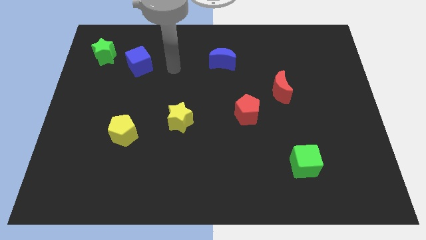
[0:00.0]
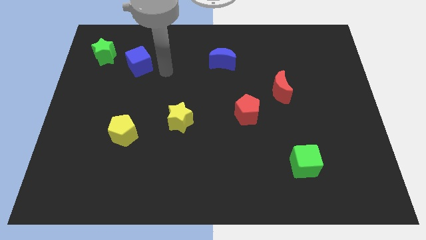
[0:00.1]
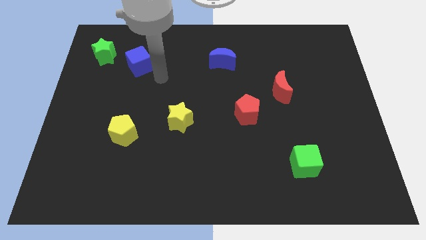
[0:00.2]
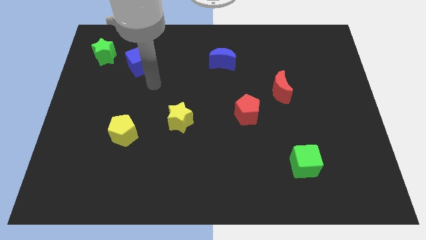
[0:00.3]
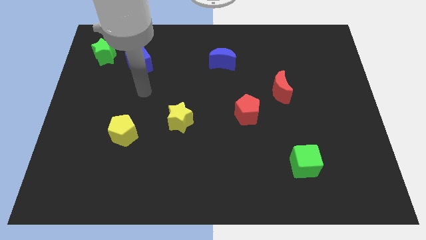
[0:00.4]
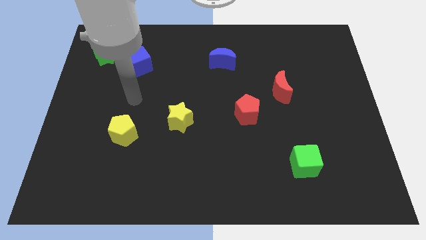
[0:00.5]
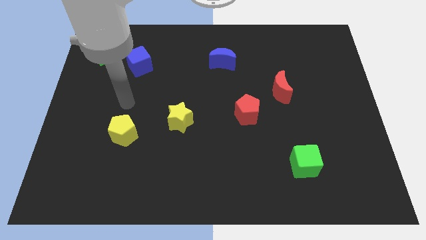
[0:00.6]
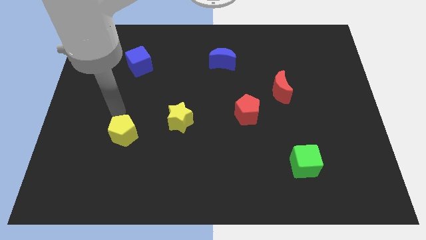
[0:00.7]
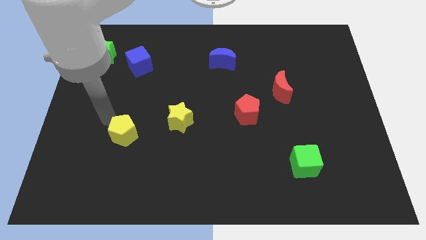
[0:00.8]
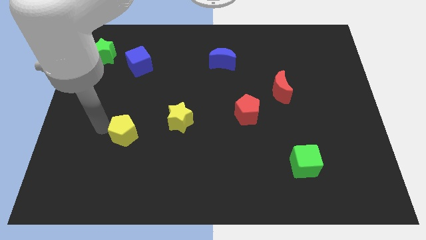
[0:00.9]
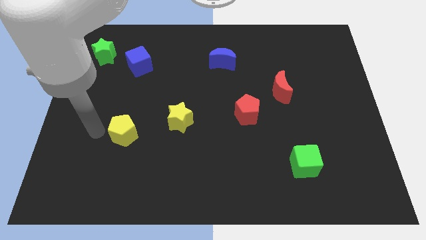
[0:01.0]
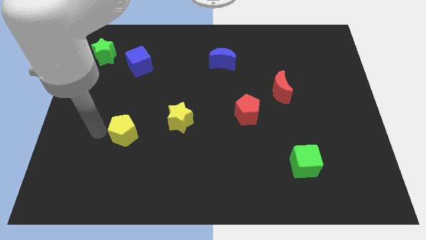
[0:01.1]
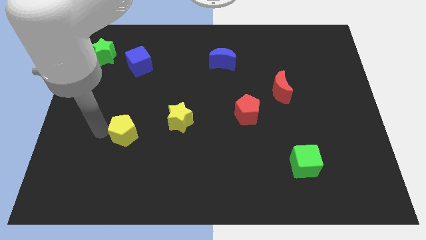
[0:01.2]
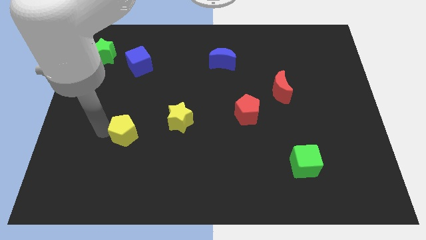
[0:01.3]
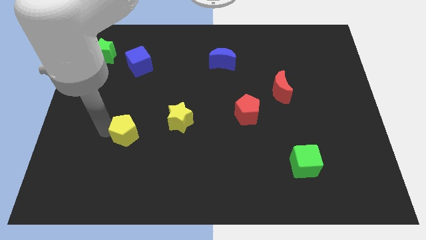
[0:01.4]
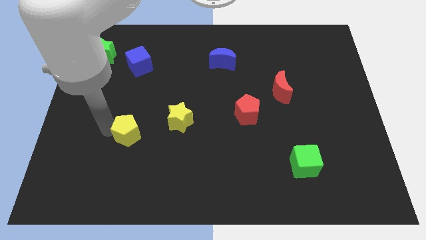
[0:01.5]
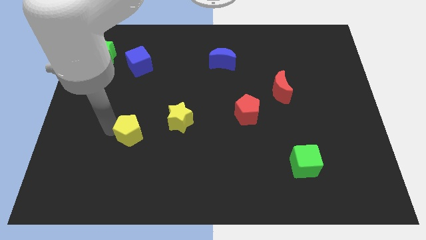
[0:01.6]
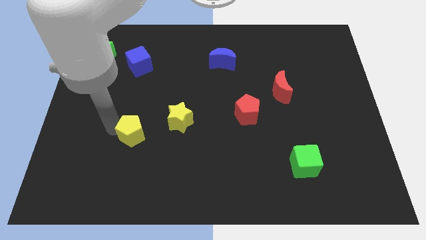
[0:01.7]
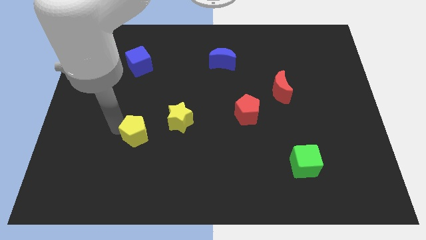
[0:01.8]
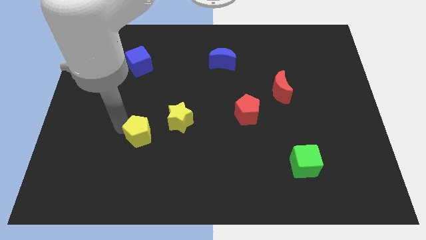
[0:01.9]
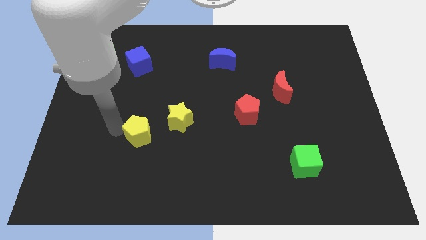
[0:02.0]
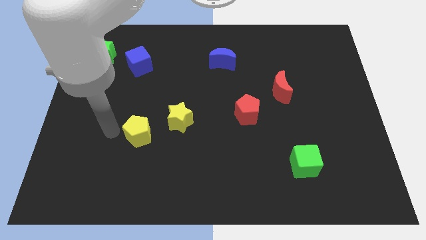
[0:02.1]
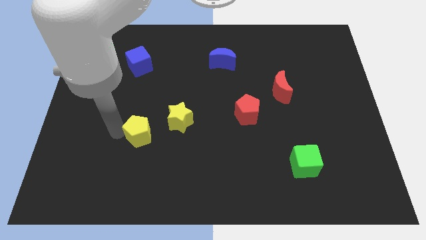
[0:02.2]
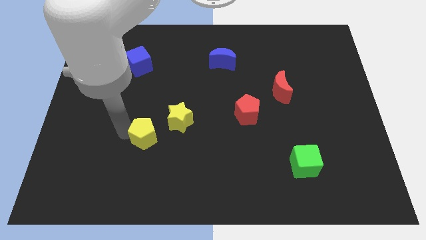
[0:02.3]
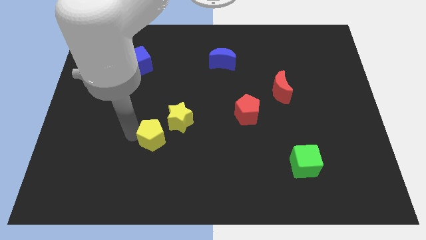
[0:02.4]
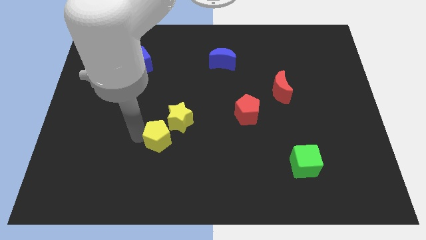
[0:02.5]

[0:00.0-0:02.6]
slide the yellow pentagon a little bit to the right

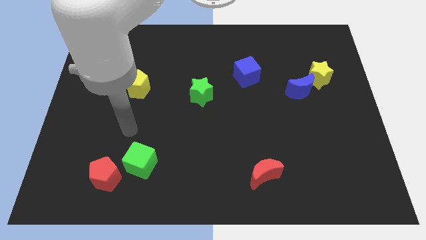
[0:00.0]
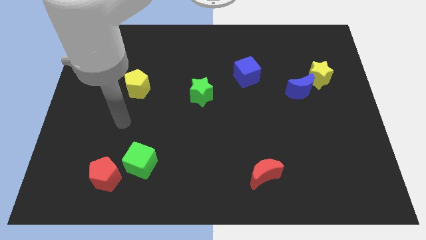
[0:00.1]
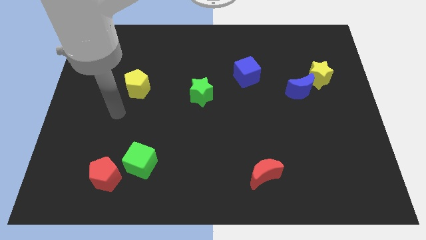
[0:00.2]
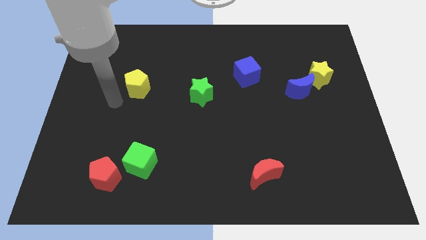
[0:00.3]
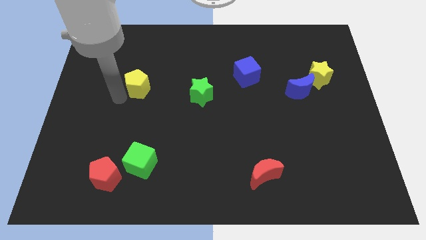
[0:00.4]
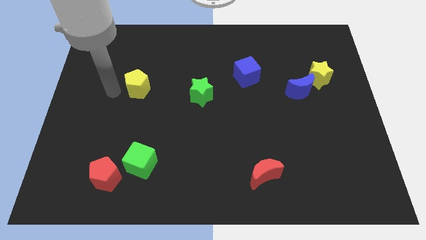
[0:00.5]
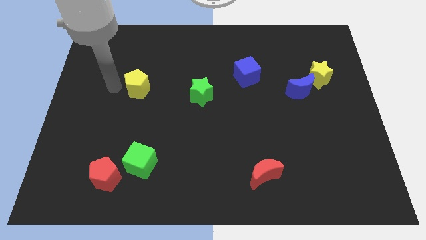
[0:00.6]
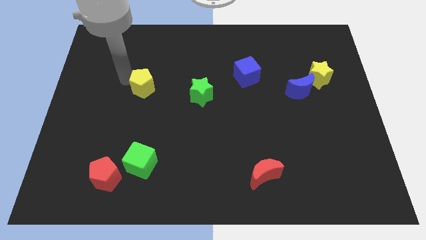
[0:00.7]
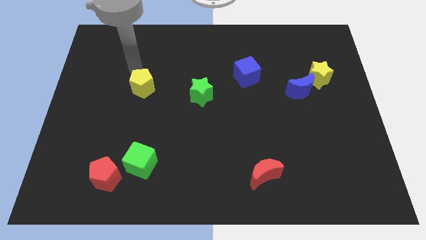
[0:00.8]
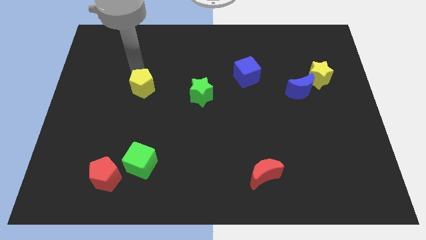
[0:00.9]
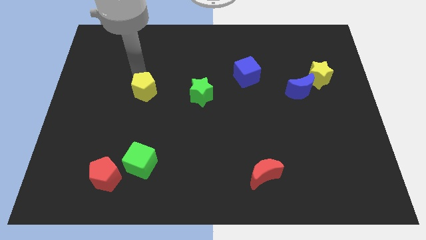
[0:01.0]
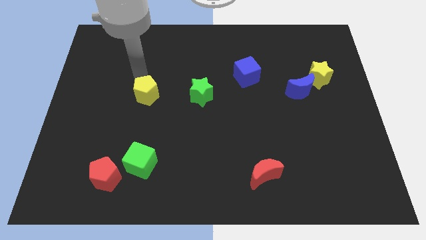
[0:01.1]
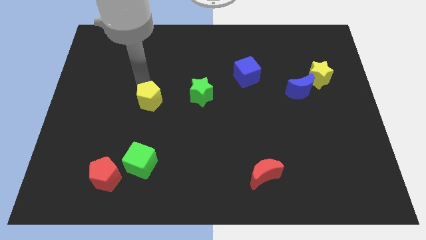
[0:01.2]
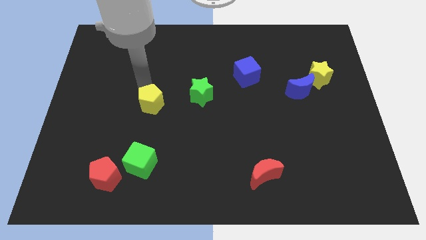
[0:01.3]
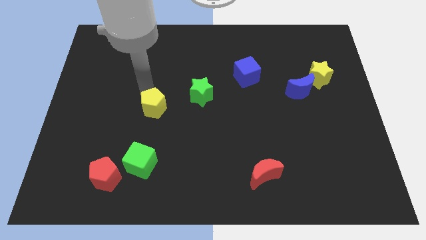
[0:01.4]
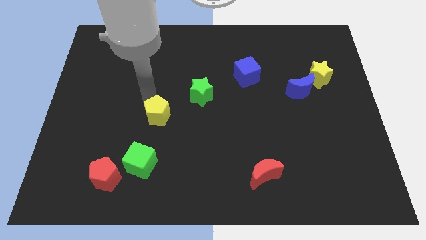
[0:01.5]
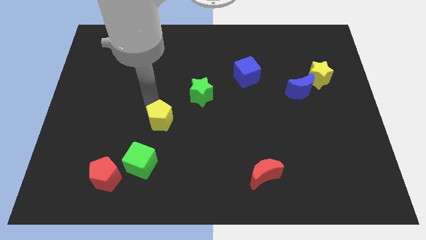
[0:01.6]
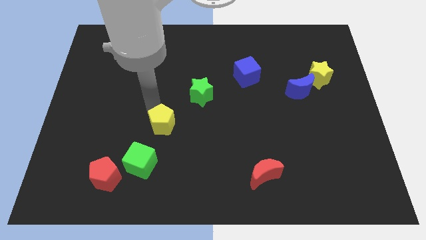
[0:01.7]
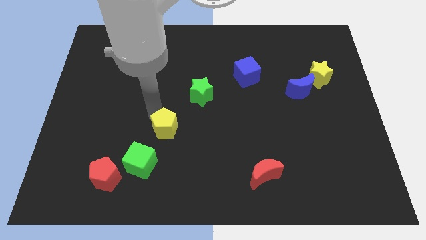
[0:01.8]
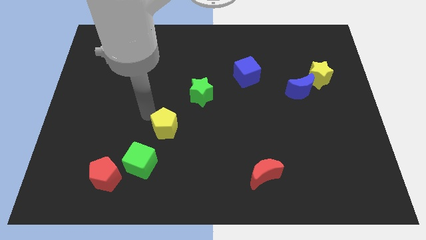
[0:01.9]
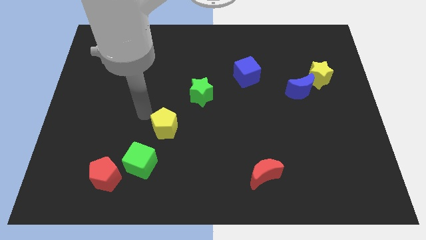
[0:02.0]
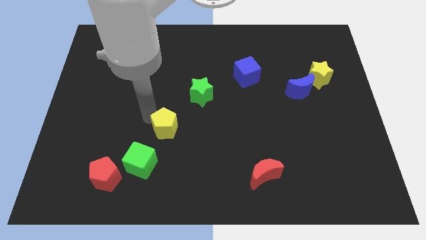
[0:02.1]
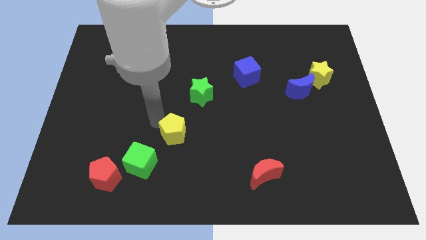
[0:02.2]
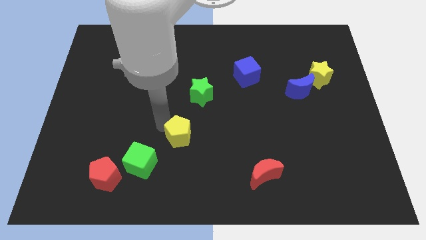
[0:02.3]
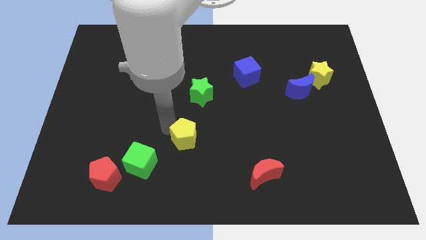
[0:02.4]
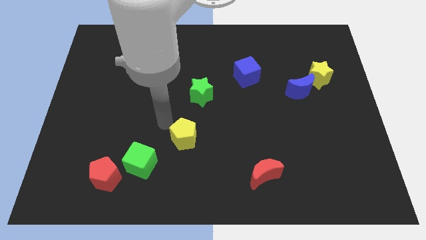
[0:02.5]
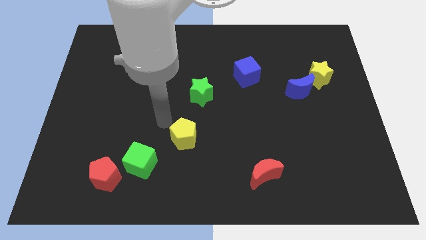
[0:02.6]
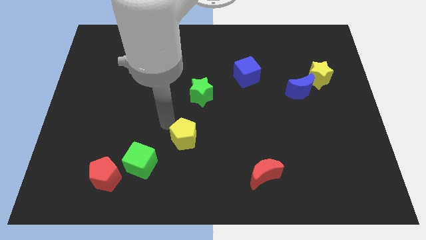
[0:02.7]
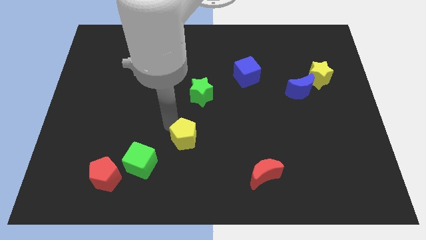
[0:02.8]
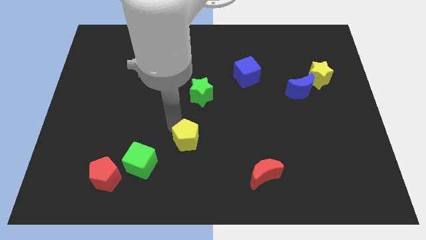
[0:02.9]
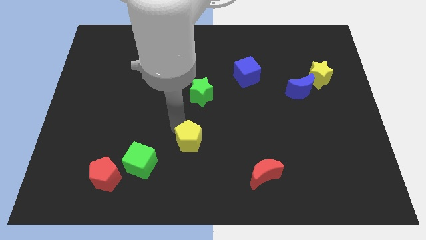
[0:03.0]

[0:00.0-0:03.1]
push the yellow pentagon down and then to the right

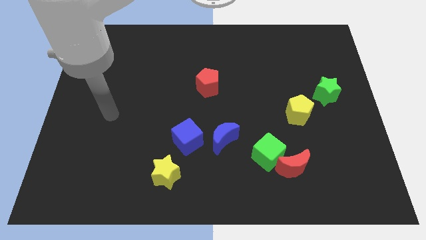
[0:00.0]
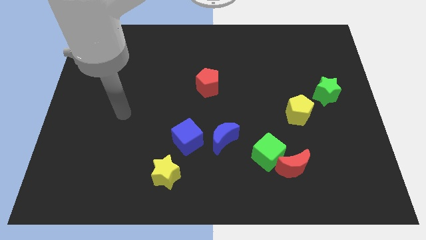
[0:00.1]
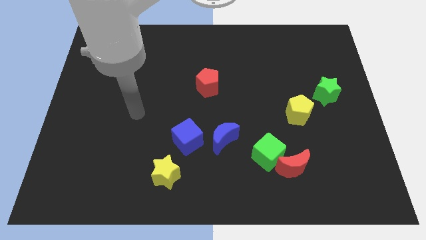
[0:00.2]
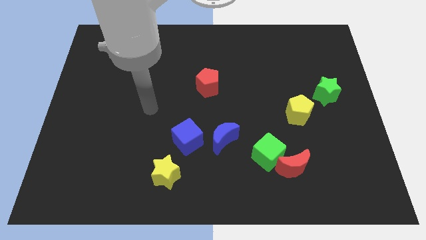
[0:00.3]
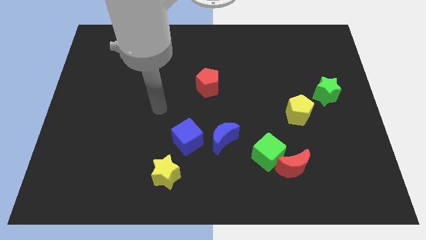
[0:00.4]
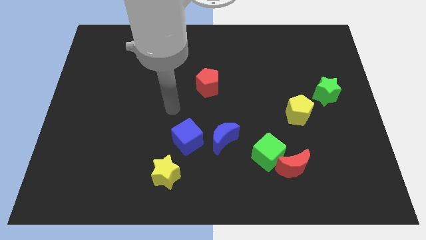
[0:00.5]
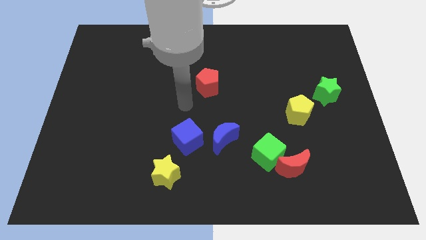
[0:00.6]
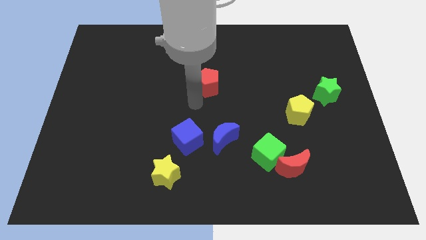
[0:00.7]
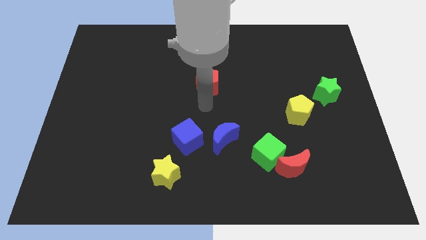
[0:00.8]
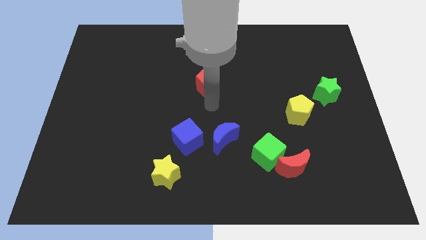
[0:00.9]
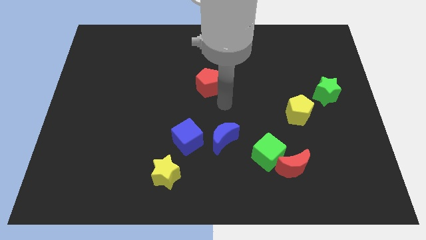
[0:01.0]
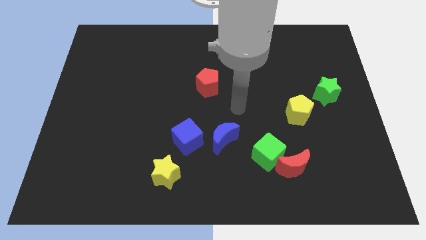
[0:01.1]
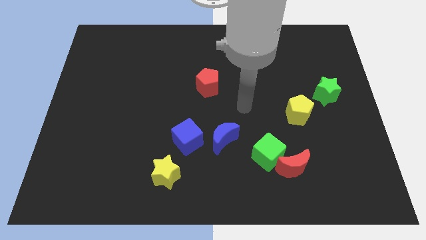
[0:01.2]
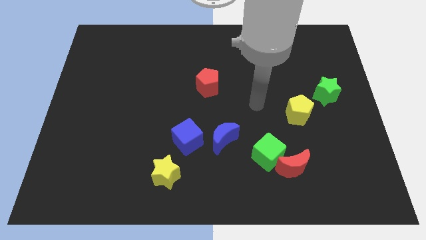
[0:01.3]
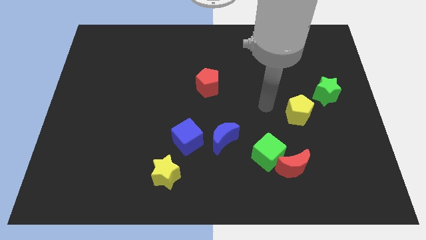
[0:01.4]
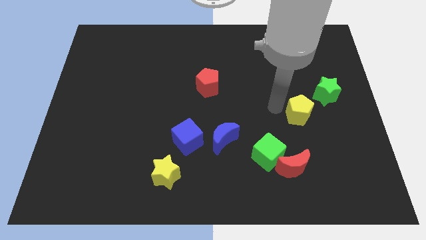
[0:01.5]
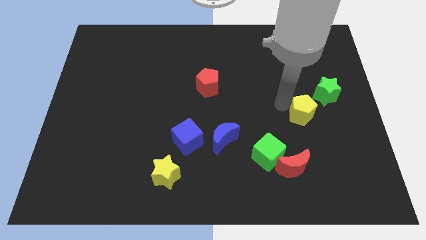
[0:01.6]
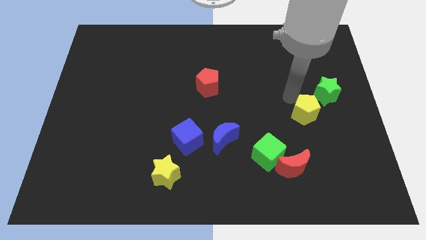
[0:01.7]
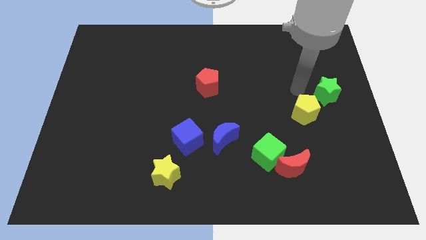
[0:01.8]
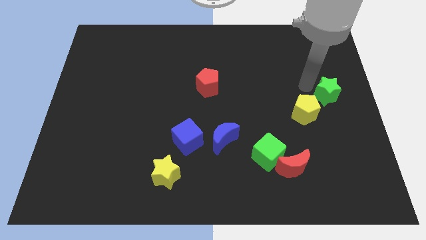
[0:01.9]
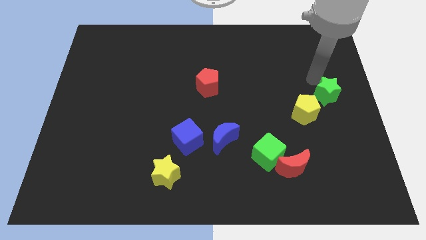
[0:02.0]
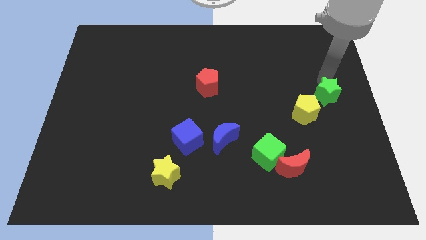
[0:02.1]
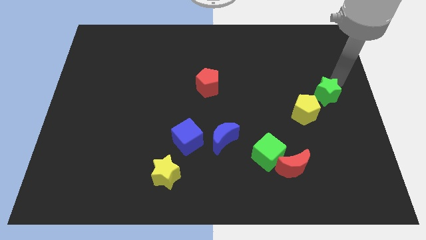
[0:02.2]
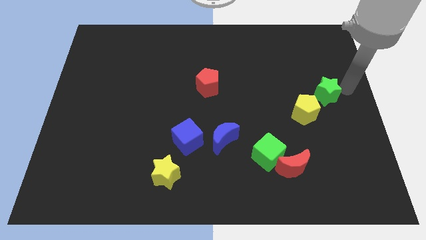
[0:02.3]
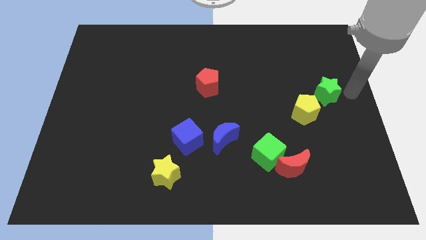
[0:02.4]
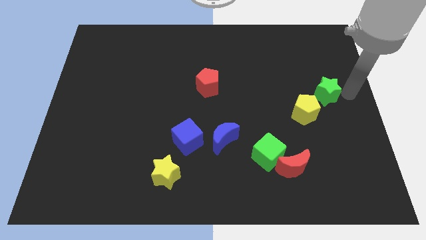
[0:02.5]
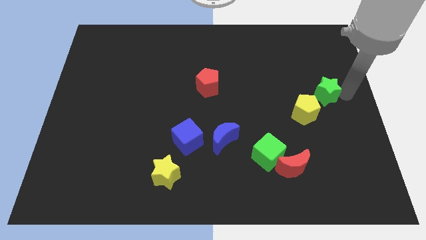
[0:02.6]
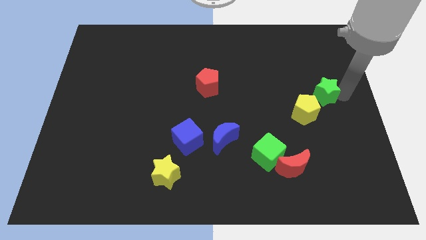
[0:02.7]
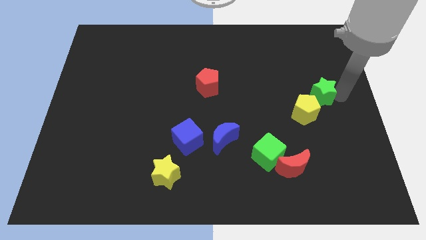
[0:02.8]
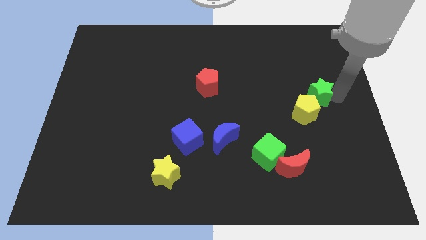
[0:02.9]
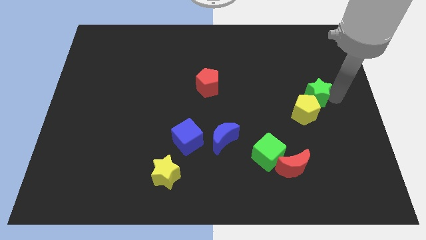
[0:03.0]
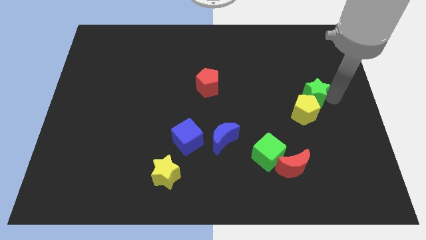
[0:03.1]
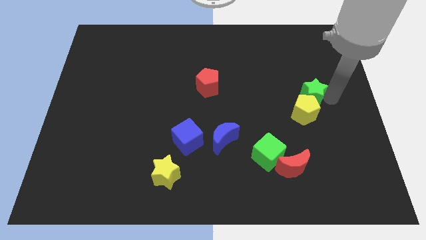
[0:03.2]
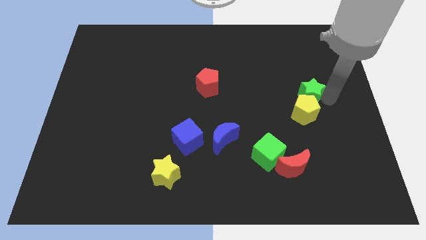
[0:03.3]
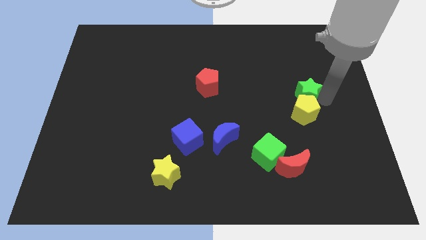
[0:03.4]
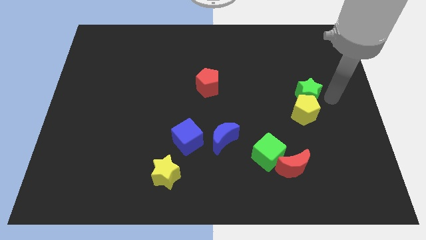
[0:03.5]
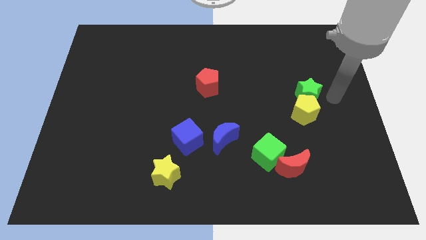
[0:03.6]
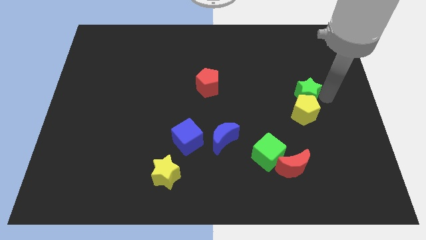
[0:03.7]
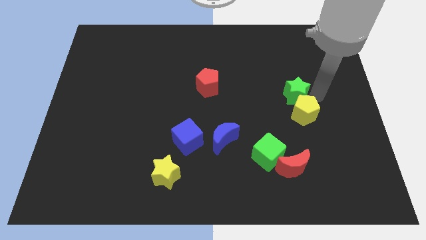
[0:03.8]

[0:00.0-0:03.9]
slightly push the green star left
